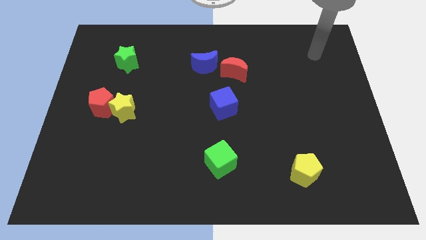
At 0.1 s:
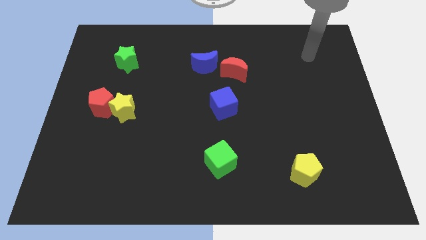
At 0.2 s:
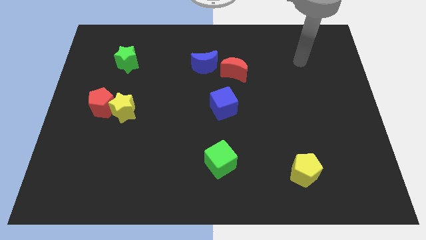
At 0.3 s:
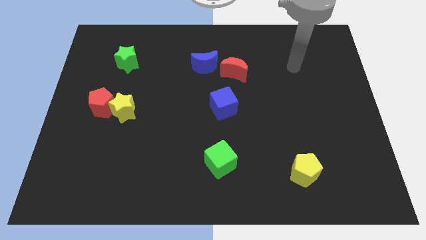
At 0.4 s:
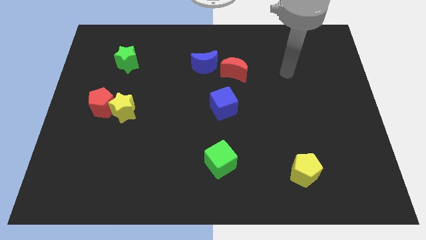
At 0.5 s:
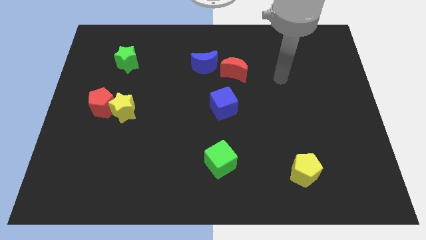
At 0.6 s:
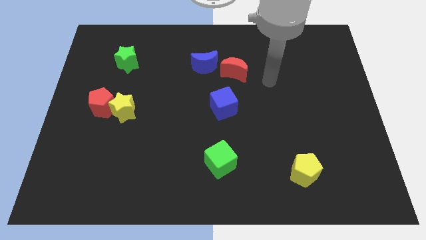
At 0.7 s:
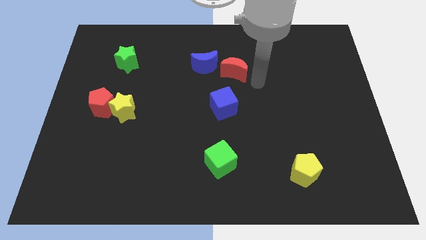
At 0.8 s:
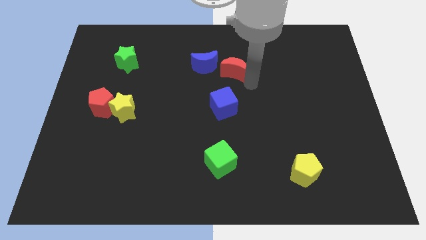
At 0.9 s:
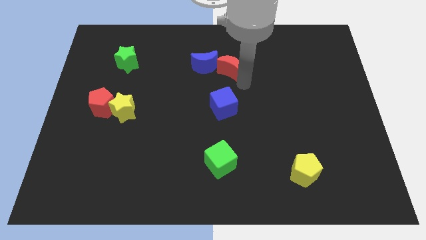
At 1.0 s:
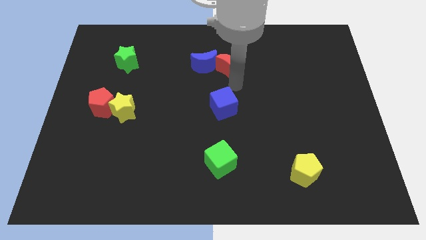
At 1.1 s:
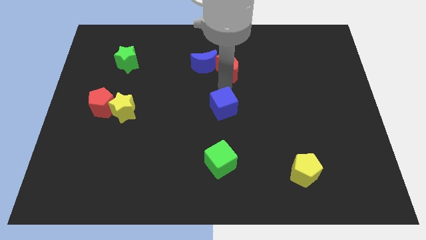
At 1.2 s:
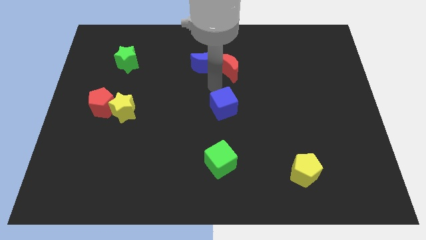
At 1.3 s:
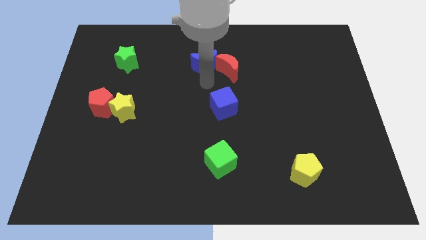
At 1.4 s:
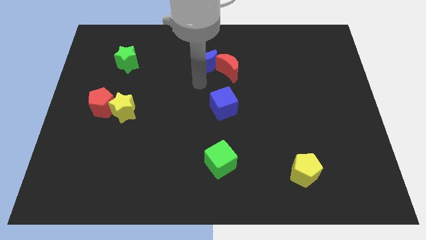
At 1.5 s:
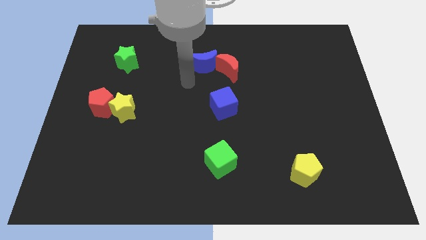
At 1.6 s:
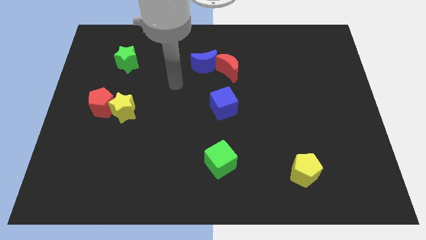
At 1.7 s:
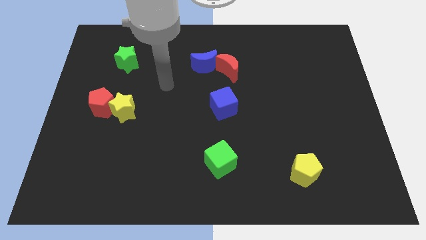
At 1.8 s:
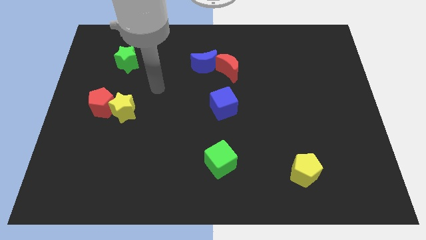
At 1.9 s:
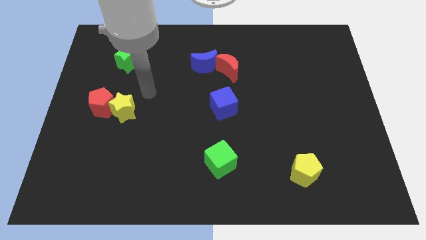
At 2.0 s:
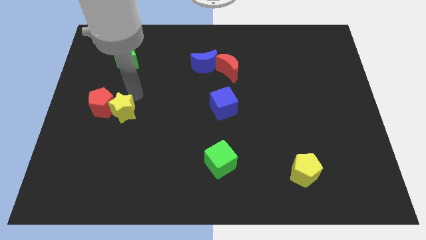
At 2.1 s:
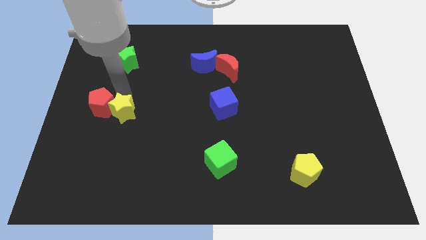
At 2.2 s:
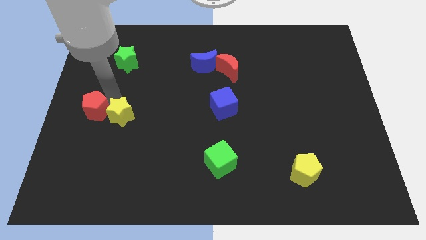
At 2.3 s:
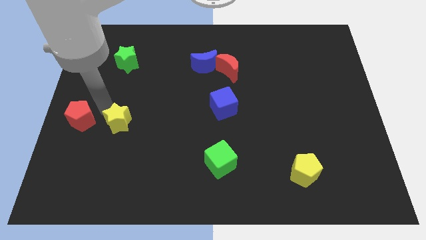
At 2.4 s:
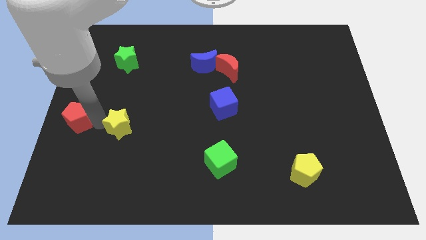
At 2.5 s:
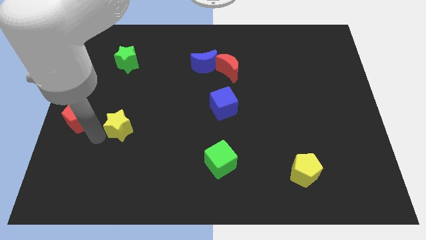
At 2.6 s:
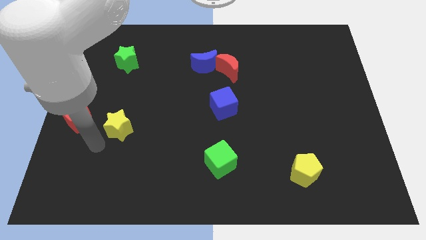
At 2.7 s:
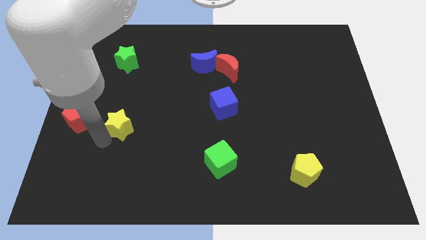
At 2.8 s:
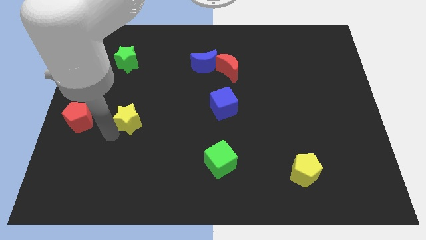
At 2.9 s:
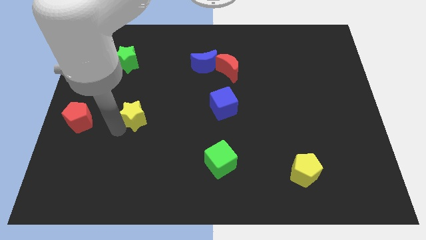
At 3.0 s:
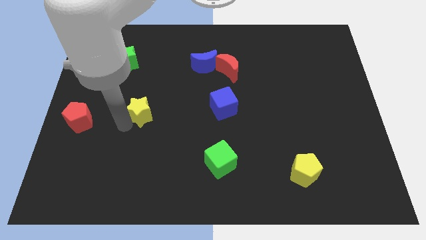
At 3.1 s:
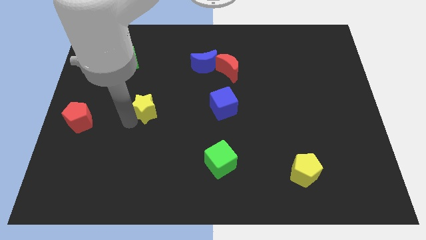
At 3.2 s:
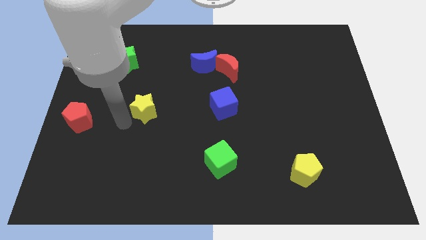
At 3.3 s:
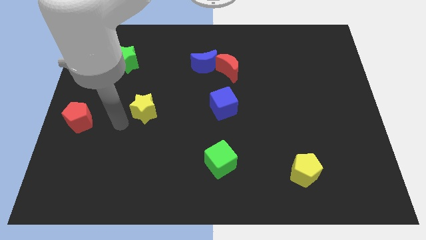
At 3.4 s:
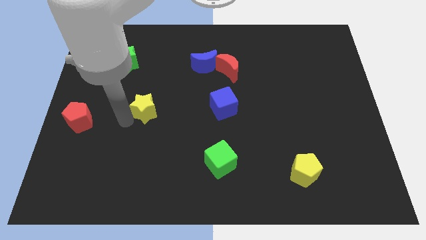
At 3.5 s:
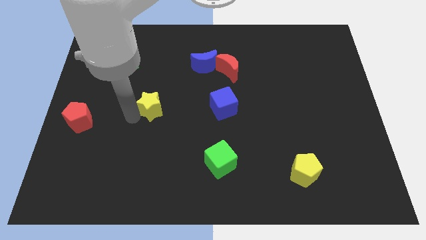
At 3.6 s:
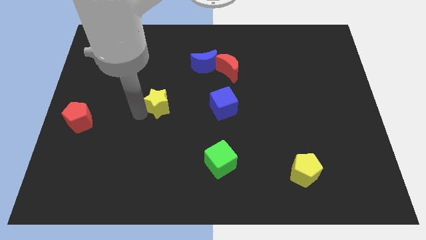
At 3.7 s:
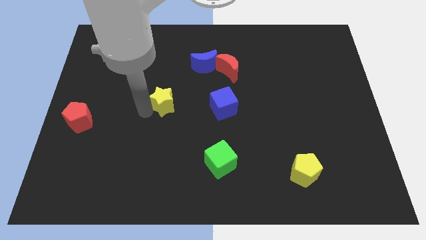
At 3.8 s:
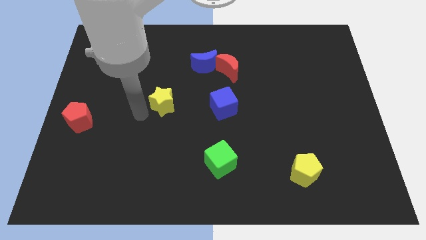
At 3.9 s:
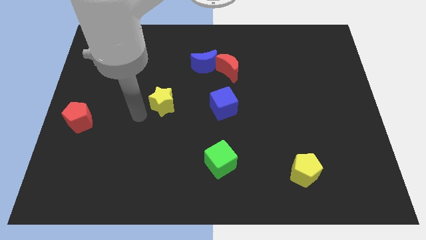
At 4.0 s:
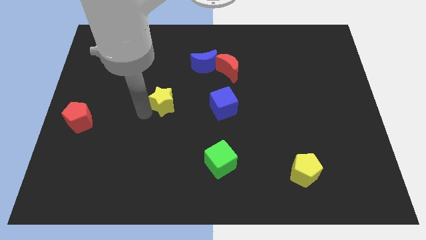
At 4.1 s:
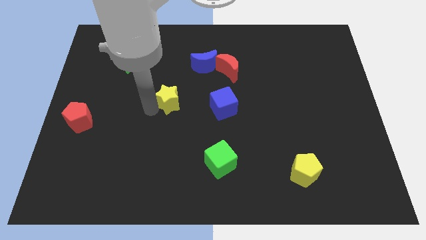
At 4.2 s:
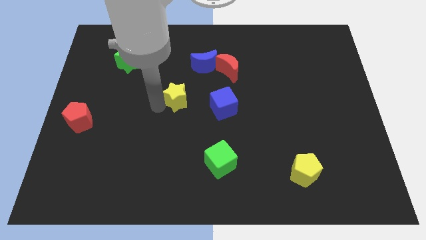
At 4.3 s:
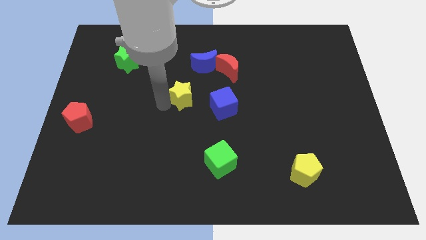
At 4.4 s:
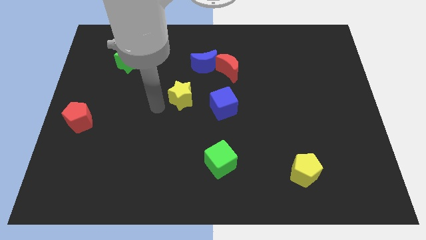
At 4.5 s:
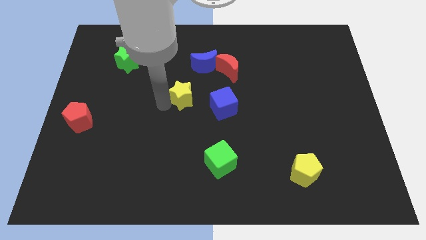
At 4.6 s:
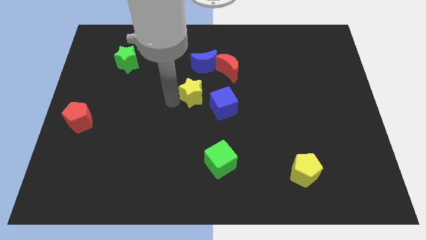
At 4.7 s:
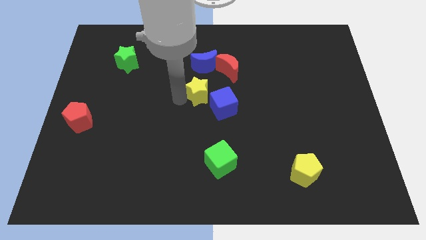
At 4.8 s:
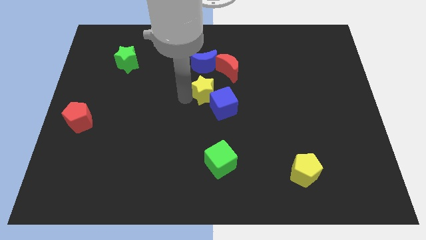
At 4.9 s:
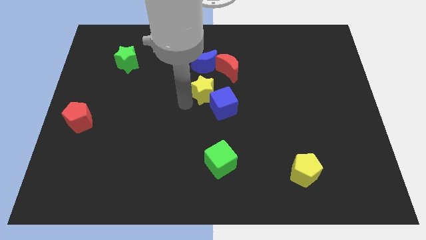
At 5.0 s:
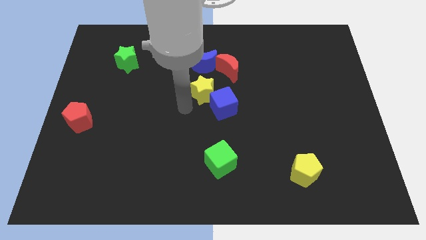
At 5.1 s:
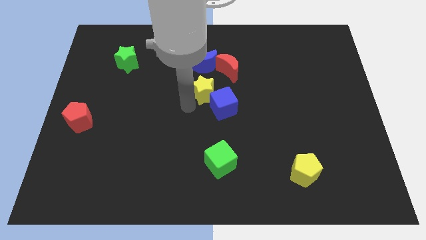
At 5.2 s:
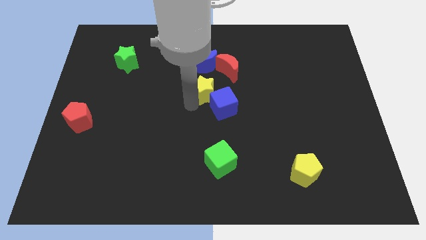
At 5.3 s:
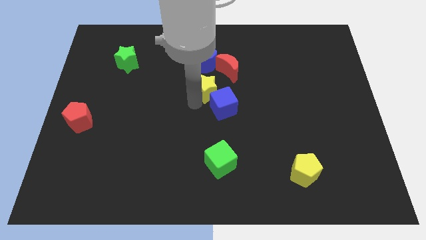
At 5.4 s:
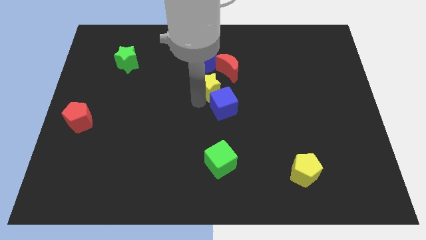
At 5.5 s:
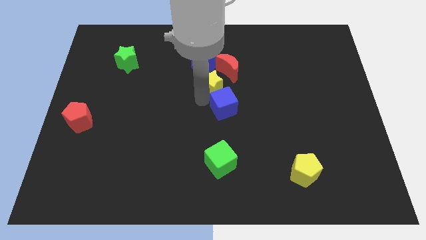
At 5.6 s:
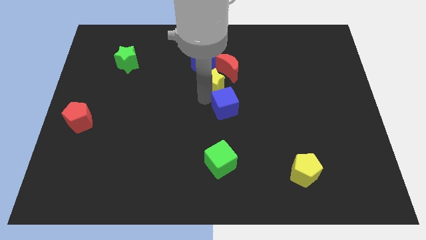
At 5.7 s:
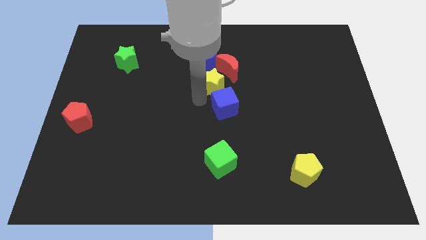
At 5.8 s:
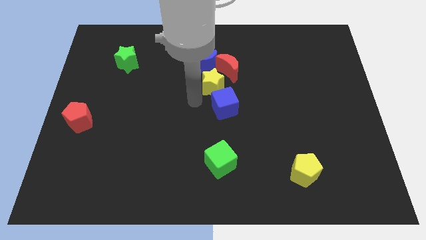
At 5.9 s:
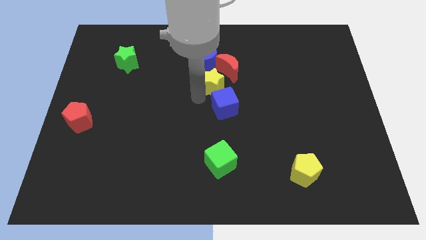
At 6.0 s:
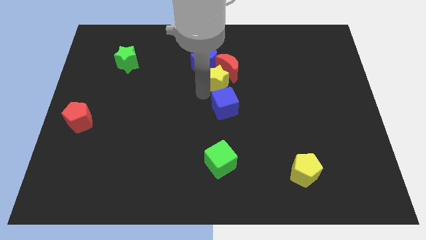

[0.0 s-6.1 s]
put the yellow star next to the red moon

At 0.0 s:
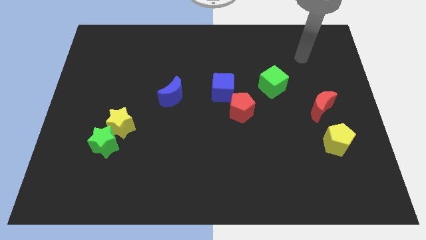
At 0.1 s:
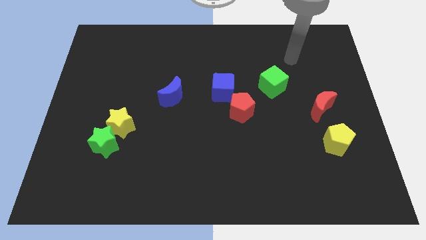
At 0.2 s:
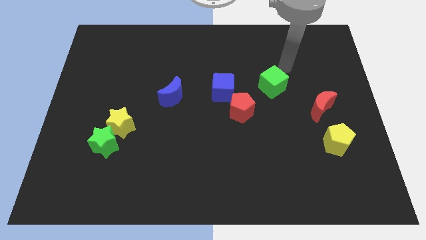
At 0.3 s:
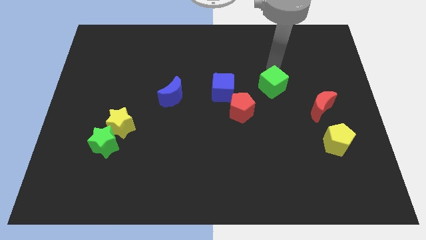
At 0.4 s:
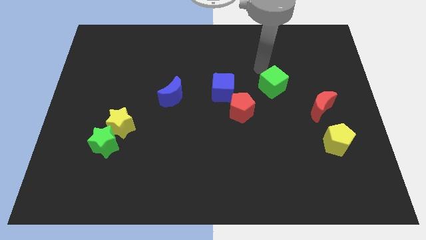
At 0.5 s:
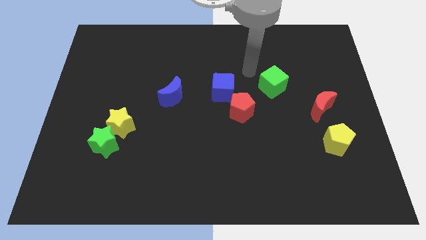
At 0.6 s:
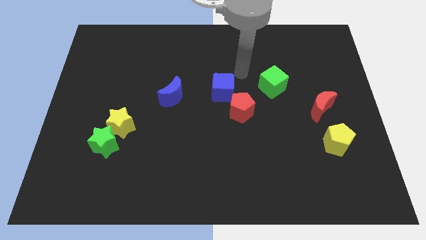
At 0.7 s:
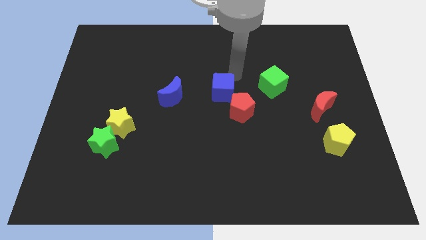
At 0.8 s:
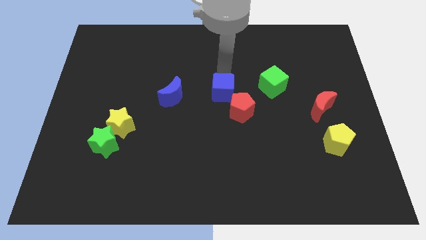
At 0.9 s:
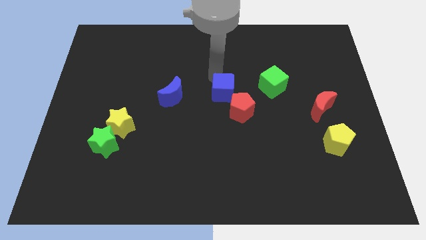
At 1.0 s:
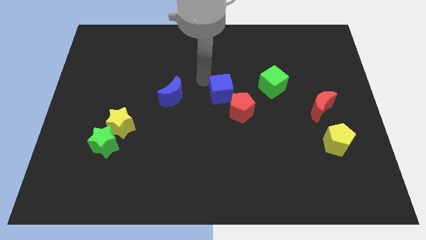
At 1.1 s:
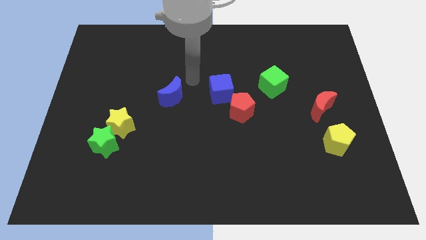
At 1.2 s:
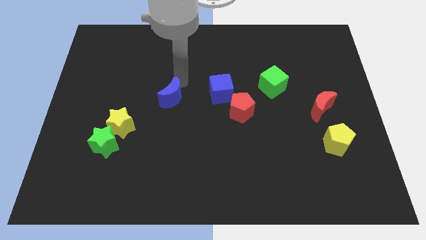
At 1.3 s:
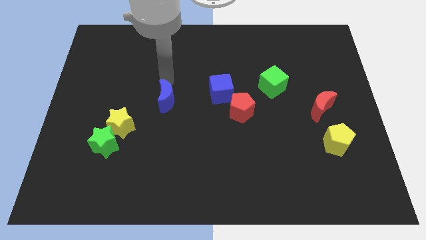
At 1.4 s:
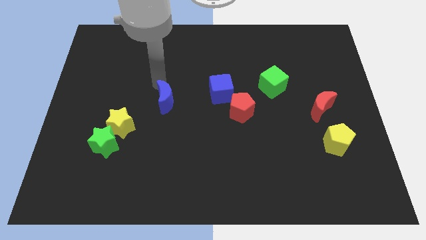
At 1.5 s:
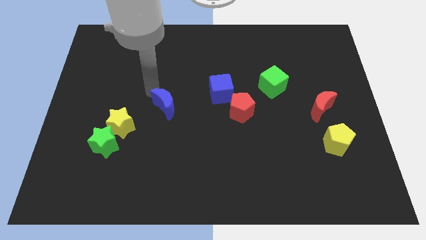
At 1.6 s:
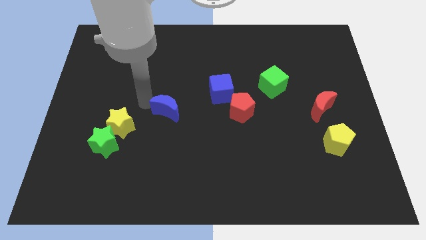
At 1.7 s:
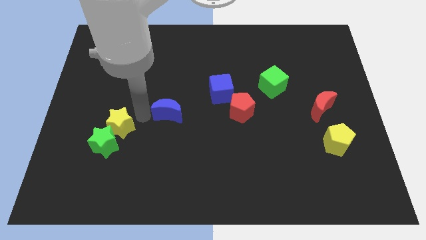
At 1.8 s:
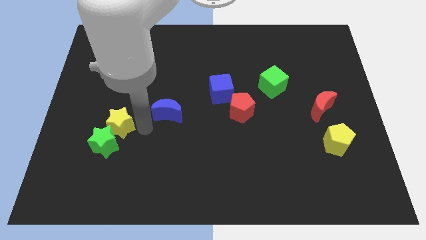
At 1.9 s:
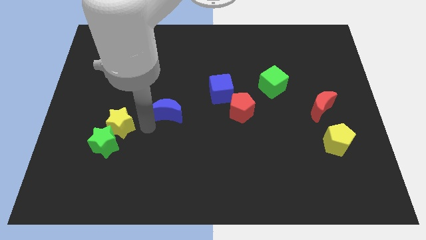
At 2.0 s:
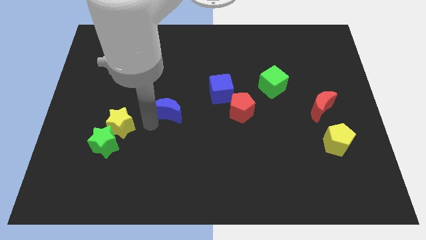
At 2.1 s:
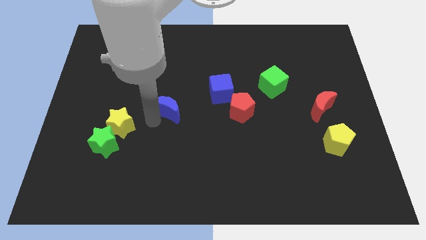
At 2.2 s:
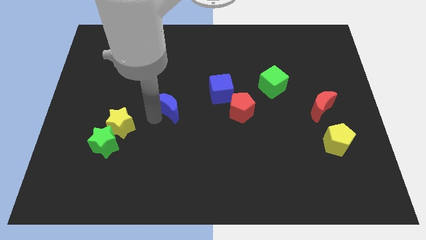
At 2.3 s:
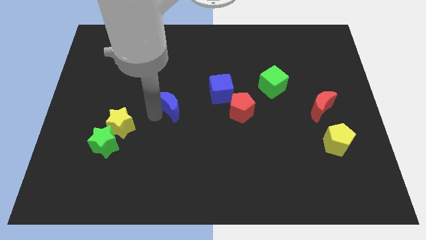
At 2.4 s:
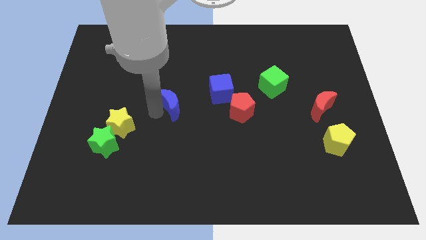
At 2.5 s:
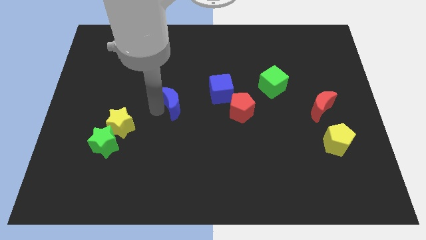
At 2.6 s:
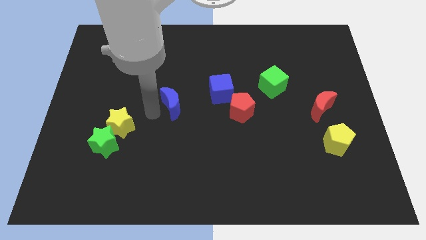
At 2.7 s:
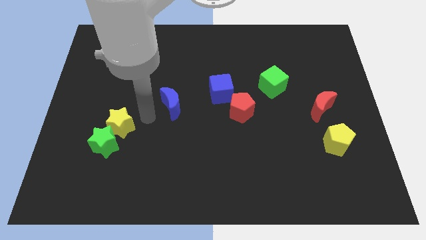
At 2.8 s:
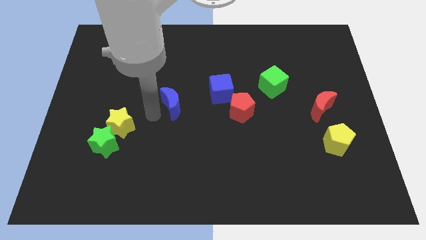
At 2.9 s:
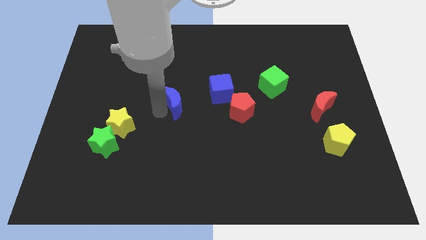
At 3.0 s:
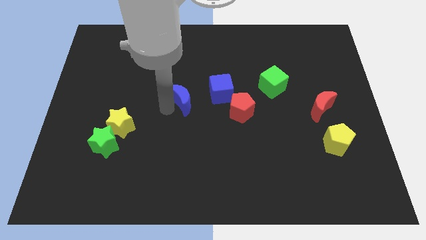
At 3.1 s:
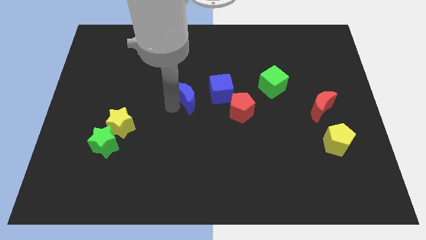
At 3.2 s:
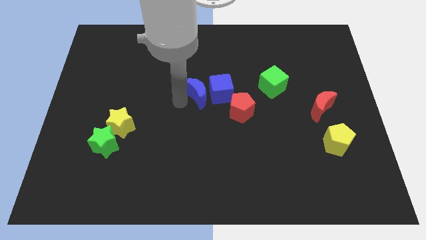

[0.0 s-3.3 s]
move the blue moon close to the blue cube
